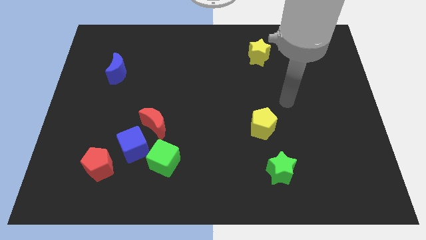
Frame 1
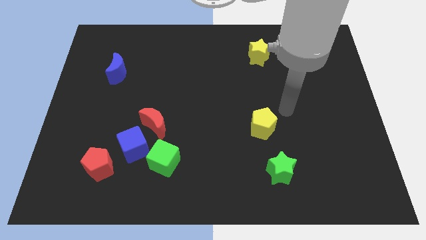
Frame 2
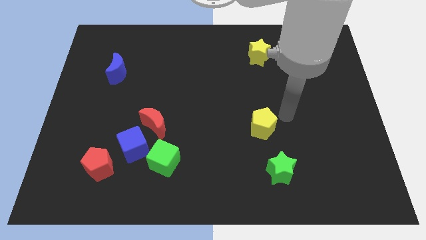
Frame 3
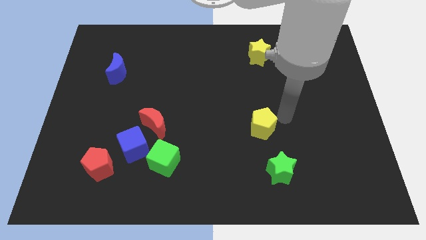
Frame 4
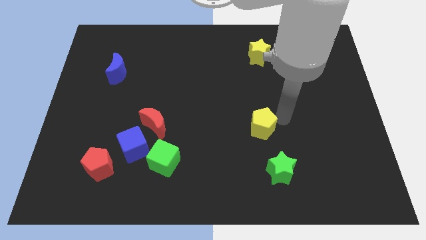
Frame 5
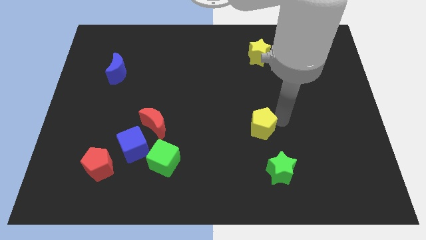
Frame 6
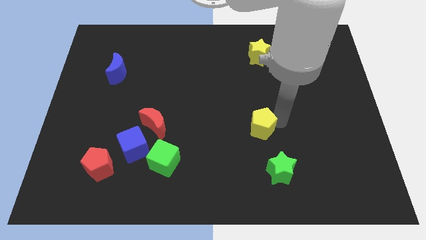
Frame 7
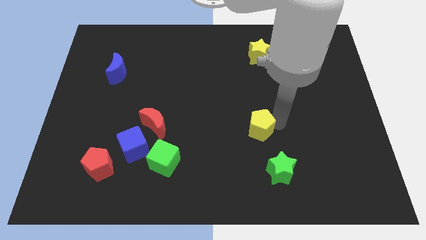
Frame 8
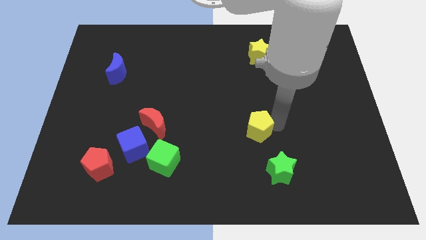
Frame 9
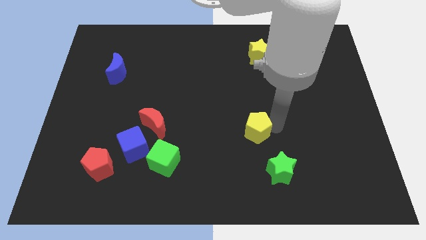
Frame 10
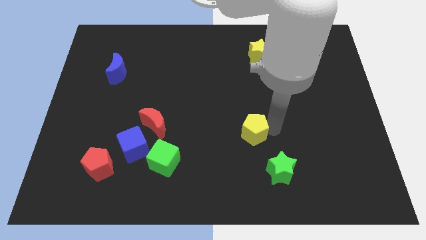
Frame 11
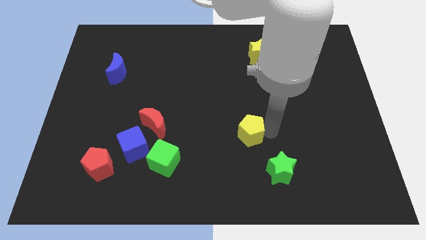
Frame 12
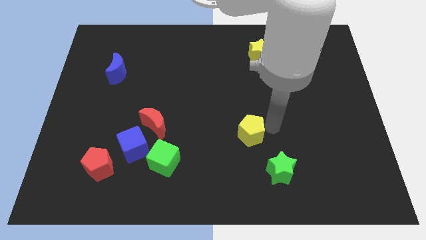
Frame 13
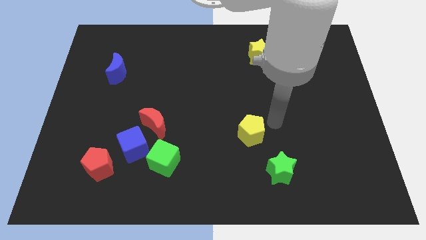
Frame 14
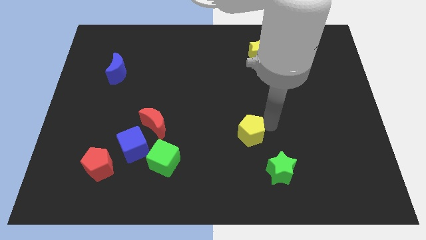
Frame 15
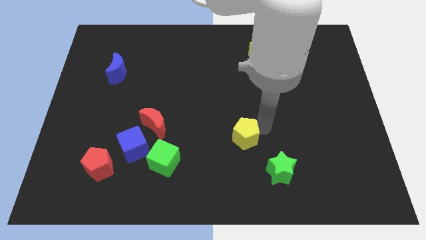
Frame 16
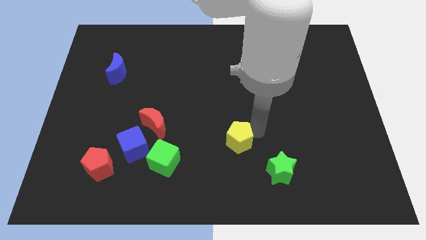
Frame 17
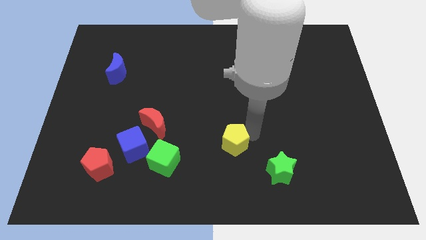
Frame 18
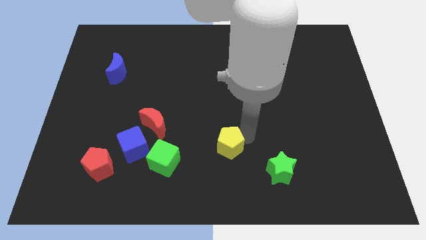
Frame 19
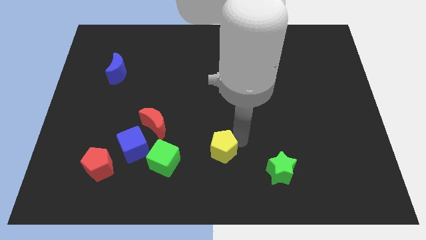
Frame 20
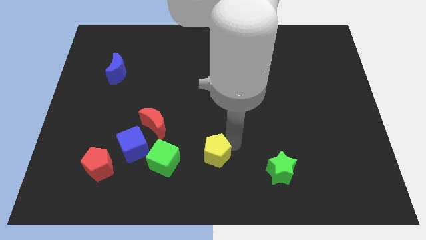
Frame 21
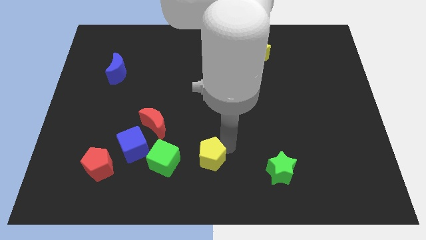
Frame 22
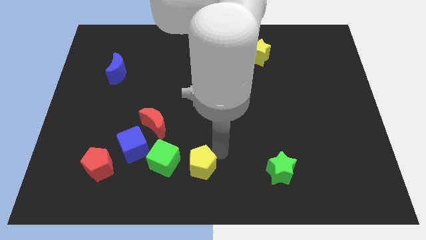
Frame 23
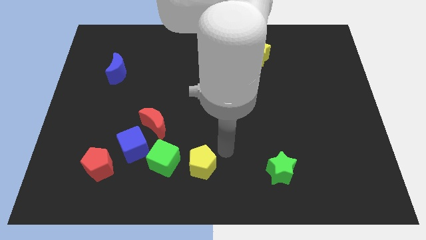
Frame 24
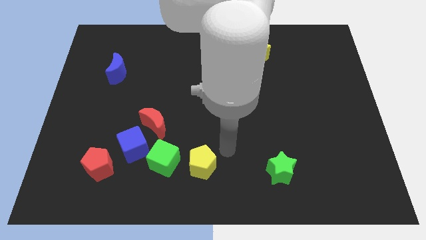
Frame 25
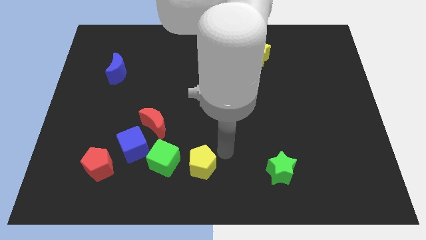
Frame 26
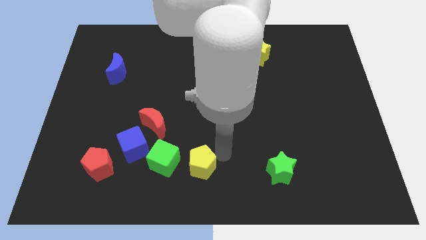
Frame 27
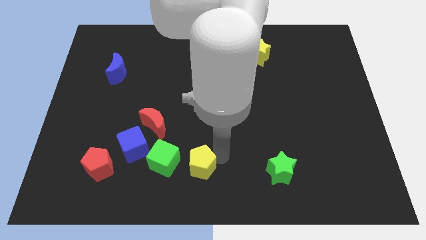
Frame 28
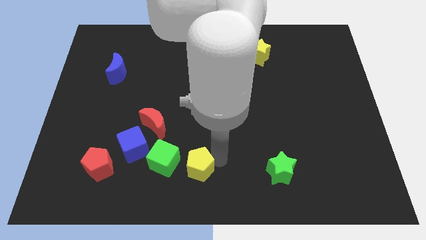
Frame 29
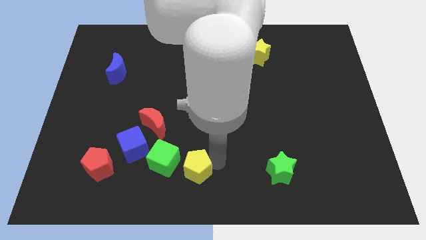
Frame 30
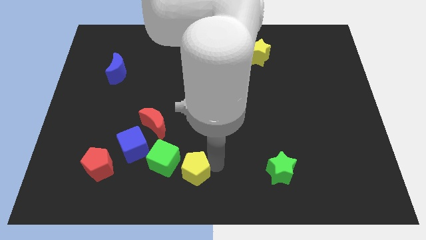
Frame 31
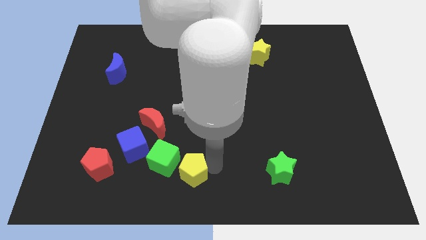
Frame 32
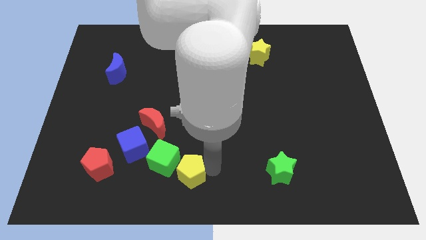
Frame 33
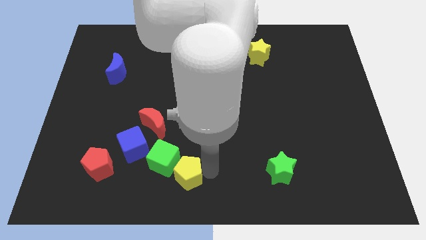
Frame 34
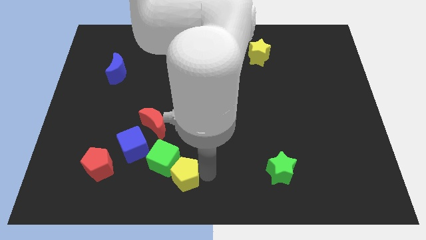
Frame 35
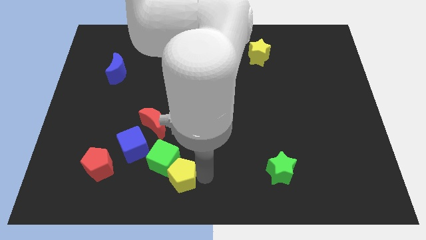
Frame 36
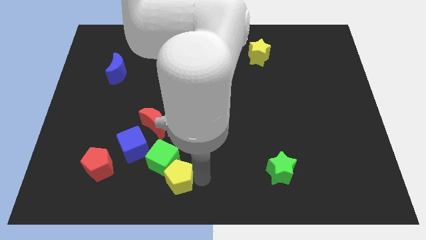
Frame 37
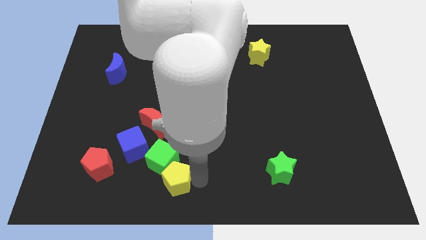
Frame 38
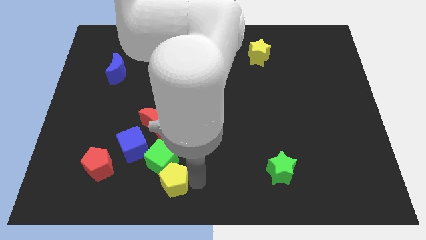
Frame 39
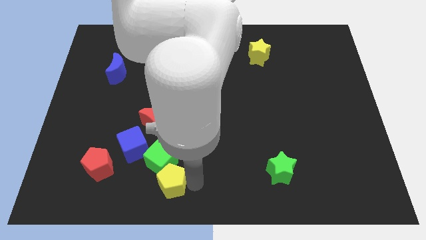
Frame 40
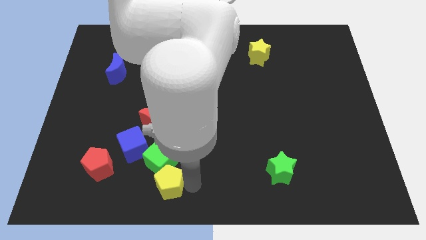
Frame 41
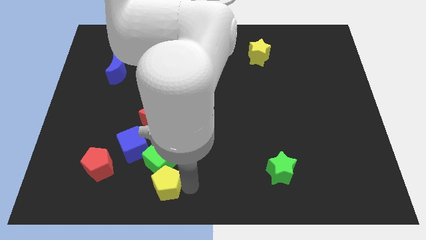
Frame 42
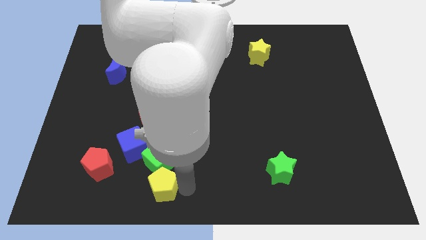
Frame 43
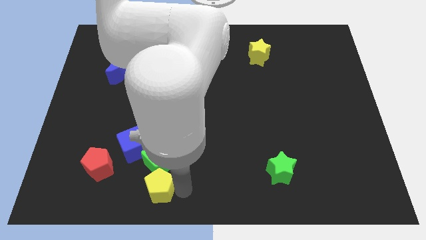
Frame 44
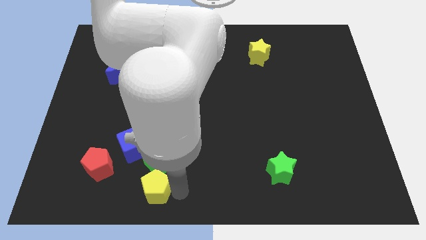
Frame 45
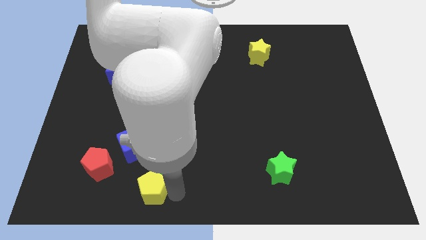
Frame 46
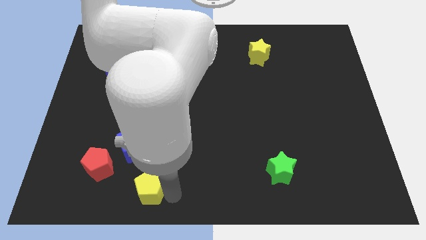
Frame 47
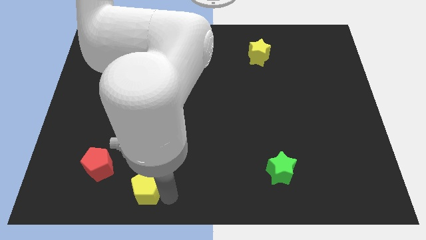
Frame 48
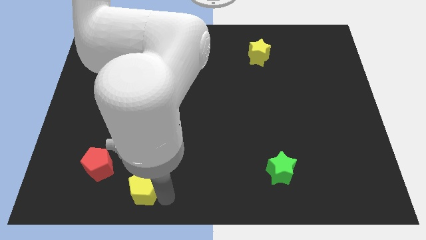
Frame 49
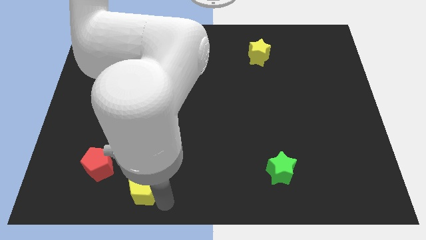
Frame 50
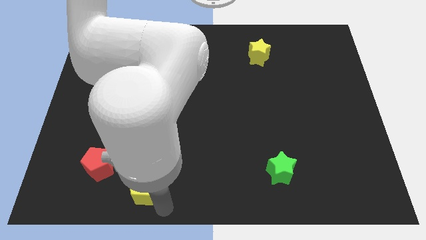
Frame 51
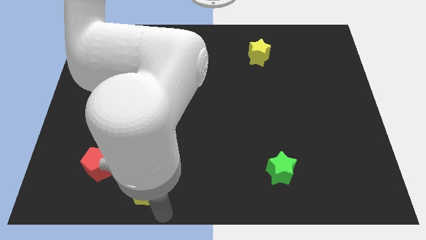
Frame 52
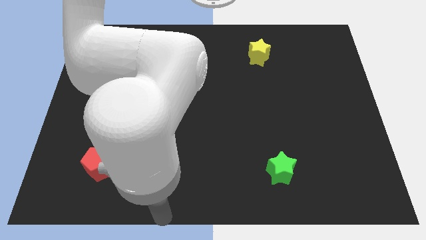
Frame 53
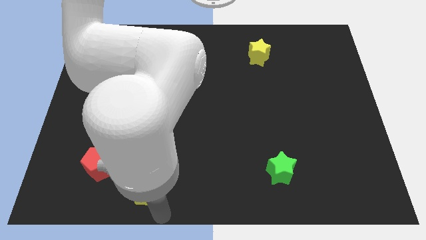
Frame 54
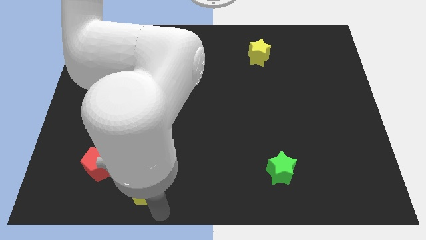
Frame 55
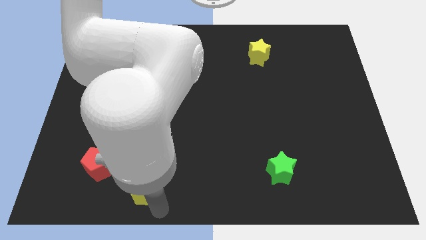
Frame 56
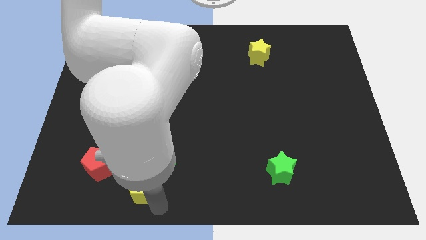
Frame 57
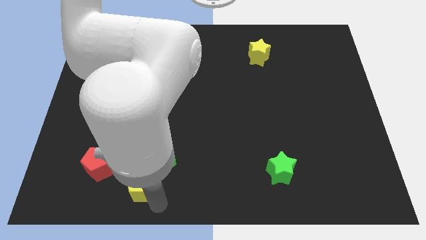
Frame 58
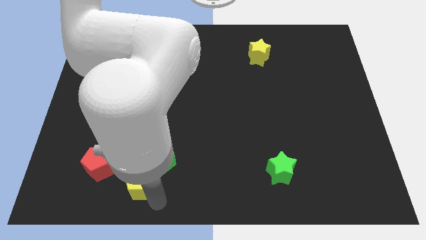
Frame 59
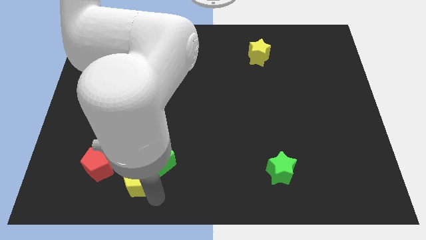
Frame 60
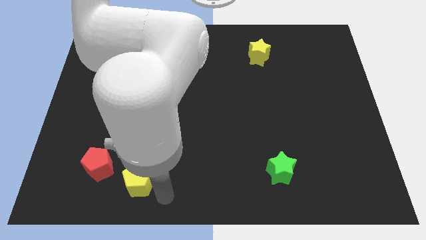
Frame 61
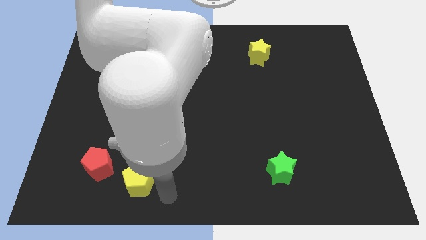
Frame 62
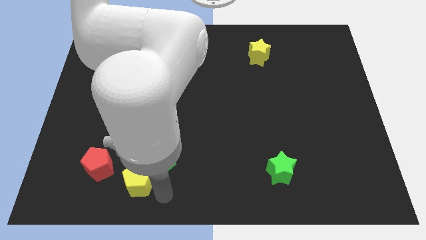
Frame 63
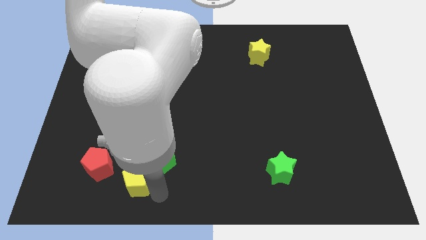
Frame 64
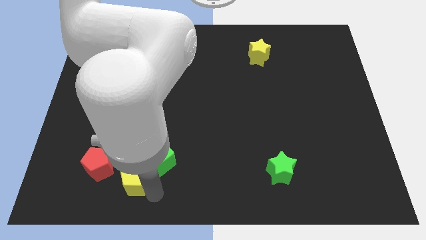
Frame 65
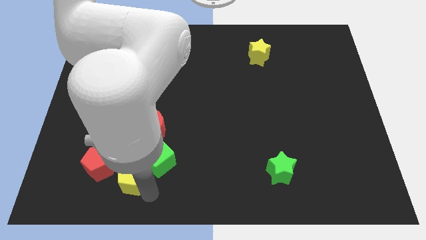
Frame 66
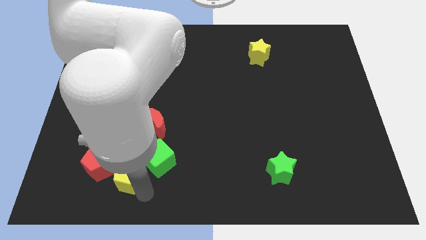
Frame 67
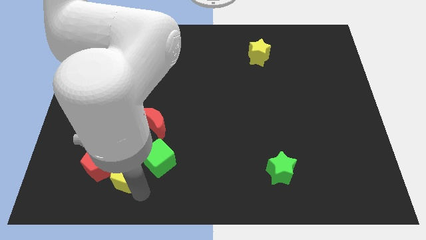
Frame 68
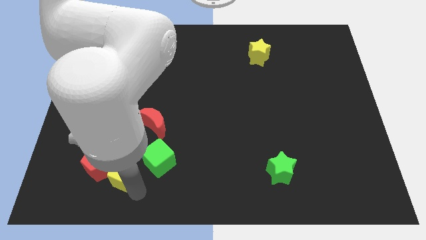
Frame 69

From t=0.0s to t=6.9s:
slide the yellow pentagon to the red pentagon

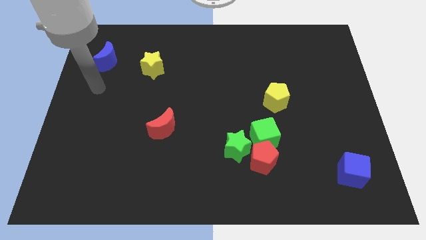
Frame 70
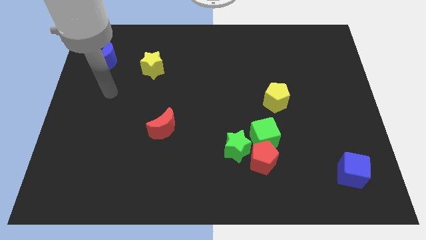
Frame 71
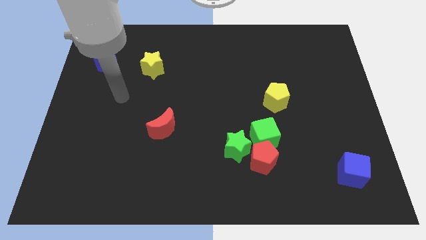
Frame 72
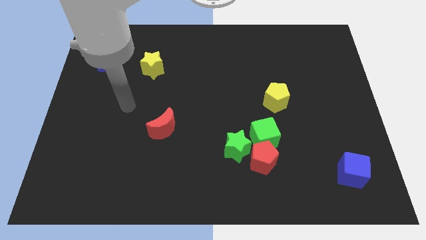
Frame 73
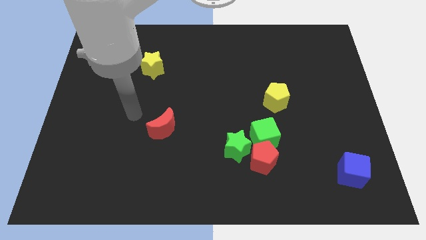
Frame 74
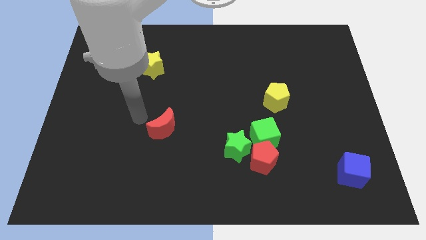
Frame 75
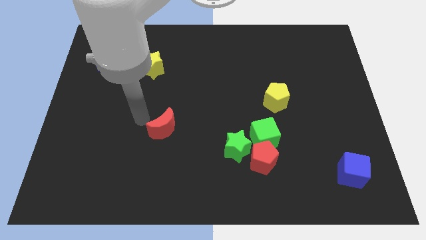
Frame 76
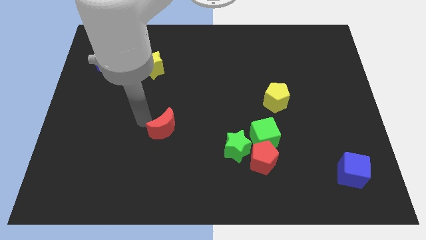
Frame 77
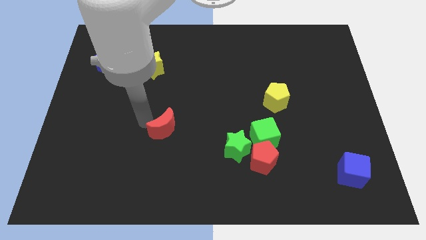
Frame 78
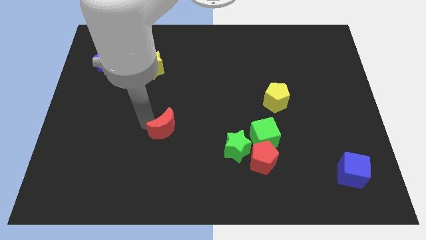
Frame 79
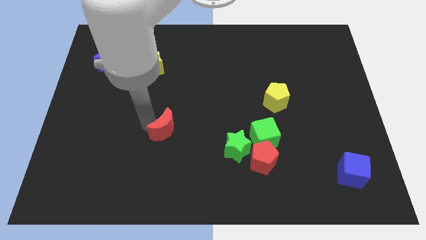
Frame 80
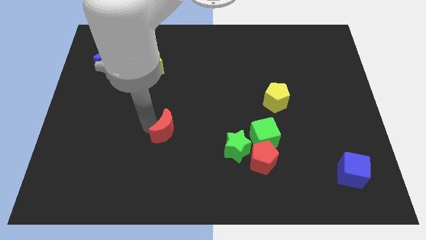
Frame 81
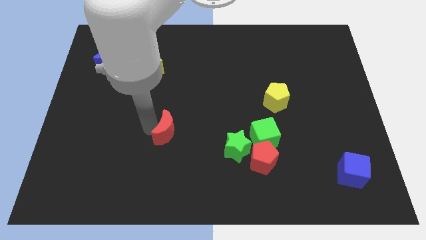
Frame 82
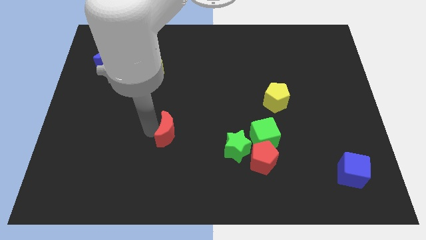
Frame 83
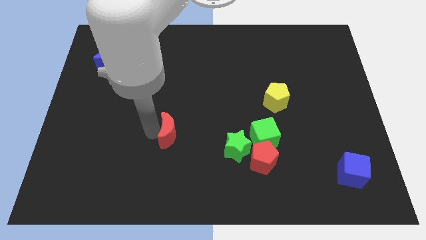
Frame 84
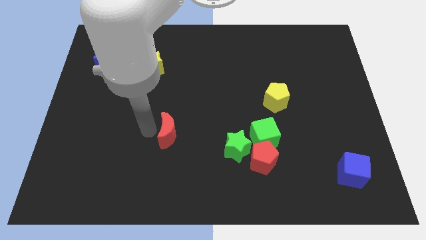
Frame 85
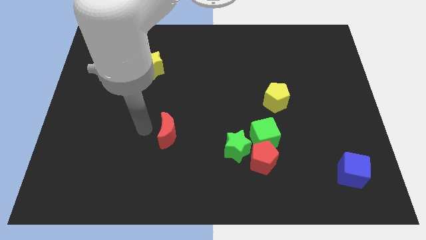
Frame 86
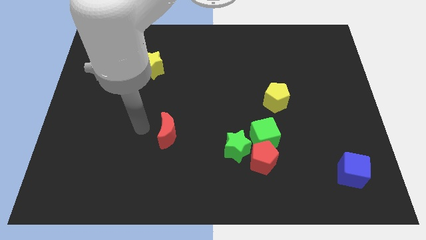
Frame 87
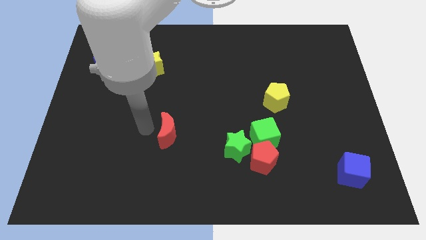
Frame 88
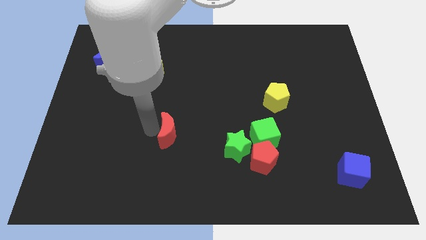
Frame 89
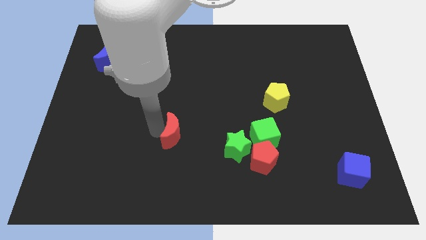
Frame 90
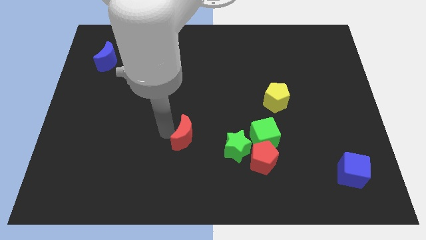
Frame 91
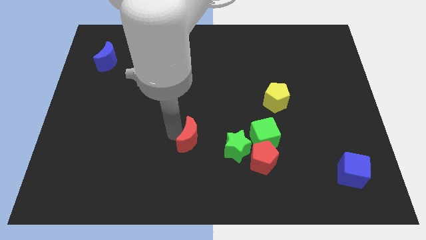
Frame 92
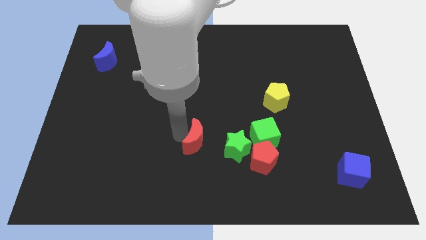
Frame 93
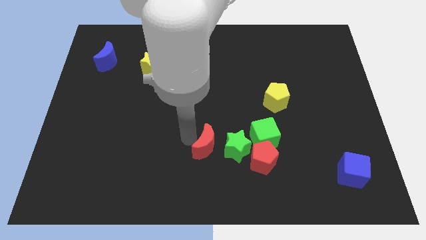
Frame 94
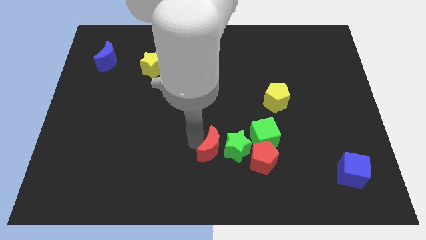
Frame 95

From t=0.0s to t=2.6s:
move the red moon close to the green star
